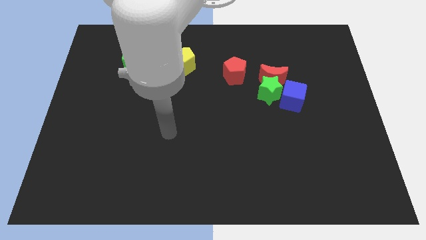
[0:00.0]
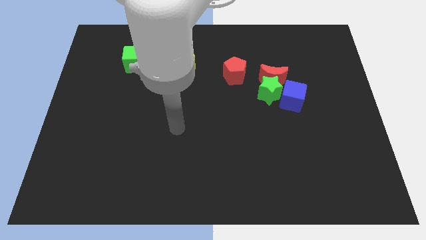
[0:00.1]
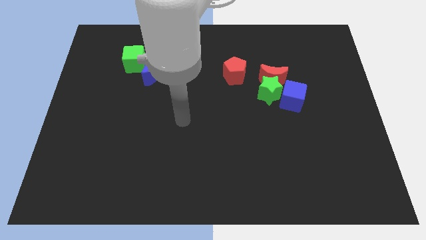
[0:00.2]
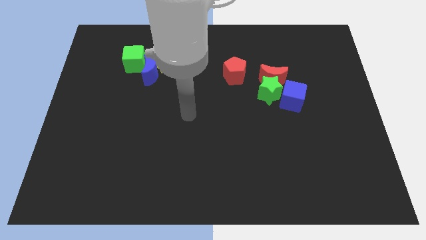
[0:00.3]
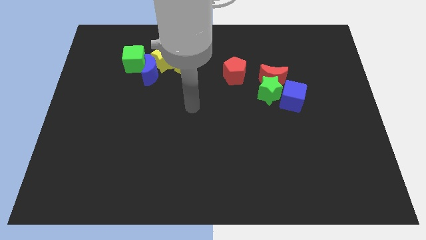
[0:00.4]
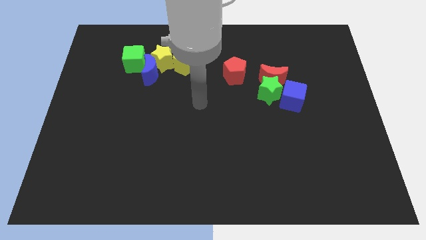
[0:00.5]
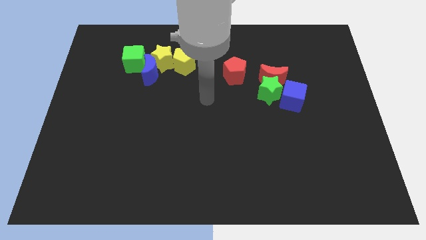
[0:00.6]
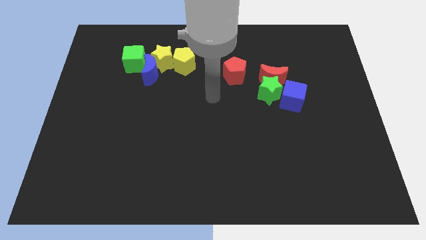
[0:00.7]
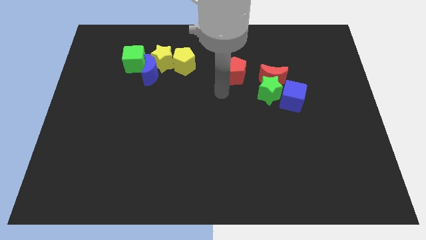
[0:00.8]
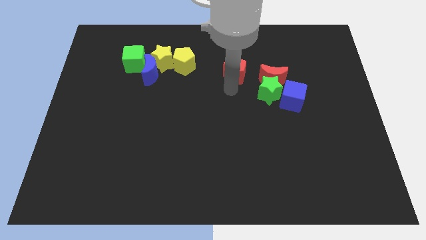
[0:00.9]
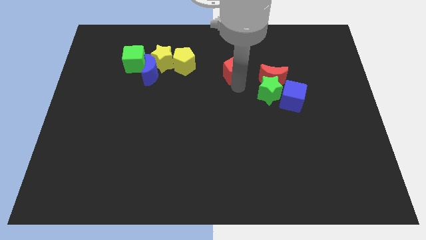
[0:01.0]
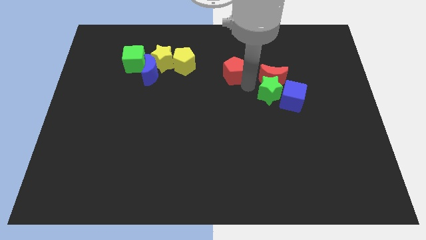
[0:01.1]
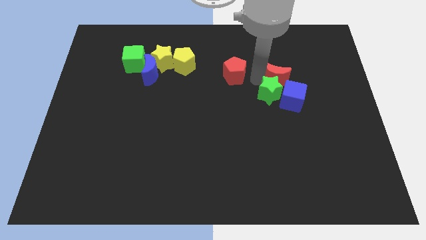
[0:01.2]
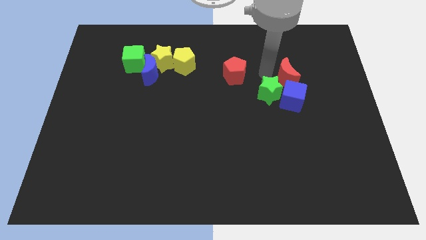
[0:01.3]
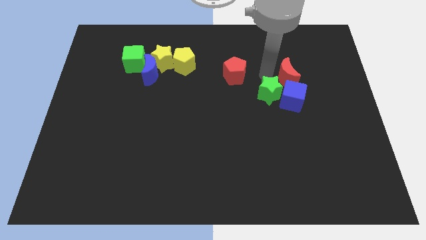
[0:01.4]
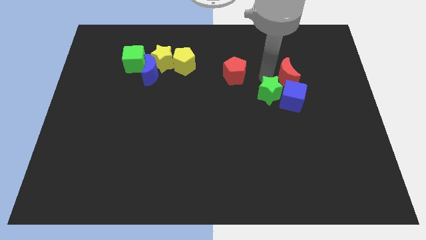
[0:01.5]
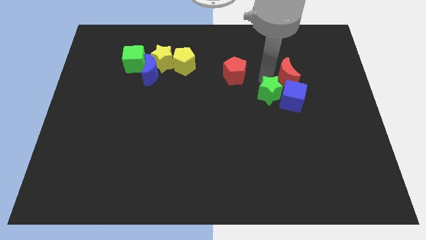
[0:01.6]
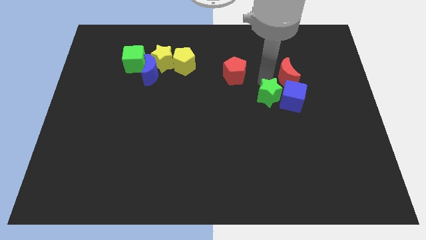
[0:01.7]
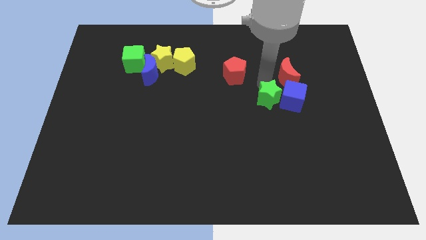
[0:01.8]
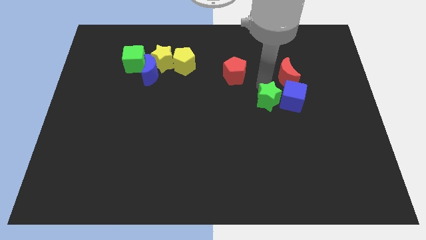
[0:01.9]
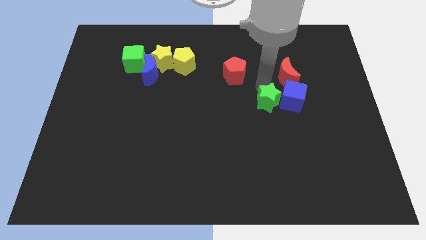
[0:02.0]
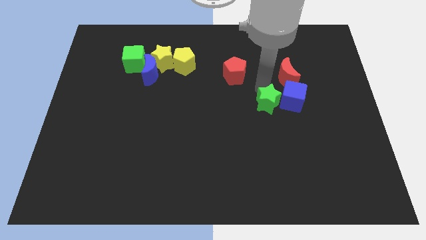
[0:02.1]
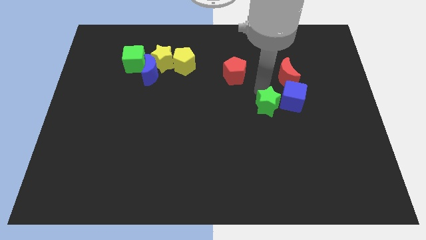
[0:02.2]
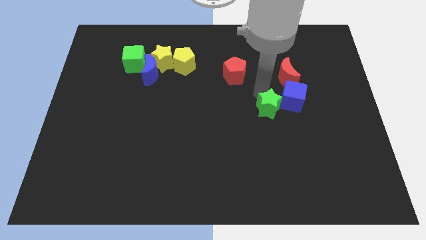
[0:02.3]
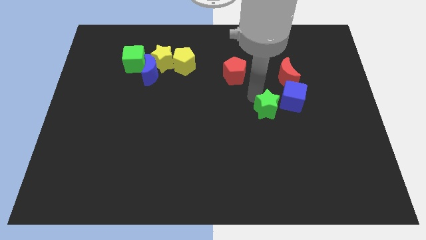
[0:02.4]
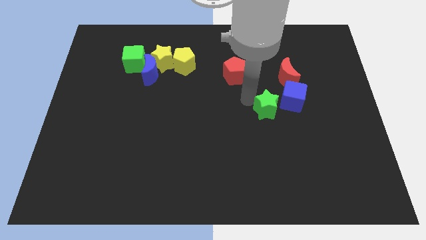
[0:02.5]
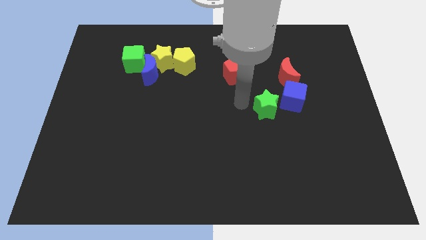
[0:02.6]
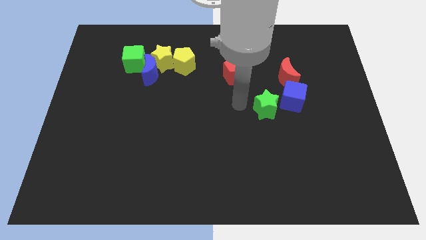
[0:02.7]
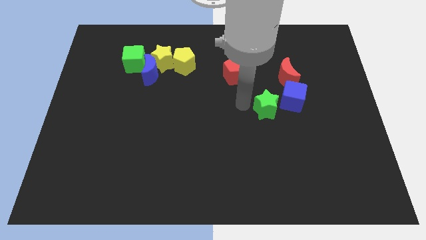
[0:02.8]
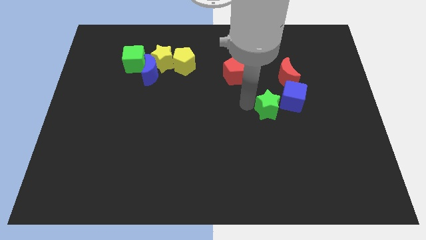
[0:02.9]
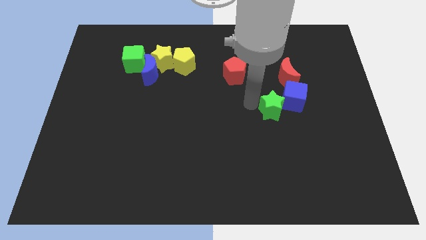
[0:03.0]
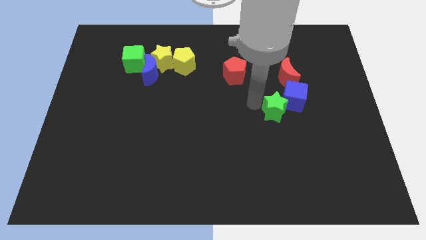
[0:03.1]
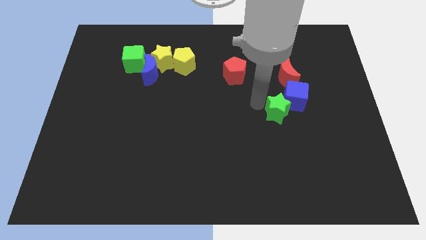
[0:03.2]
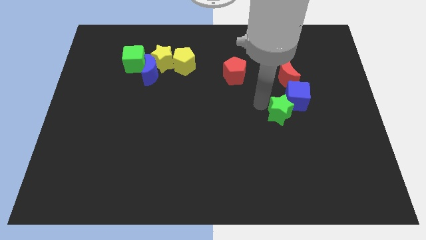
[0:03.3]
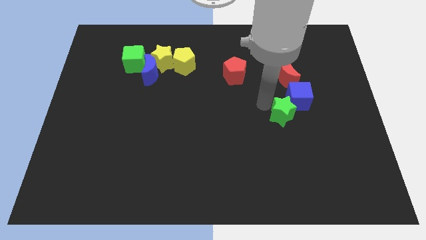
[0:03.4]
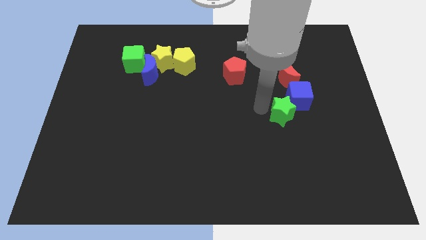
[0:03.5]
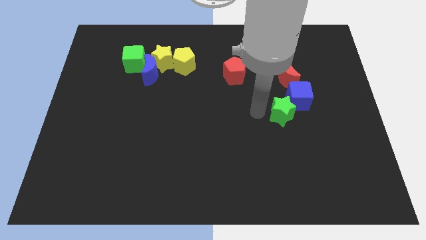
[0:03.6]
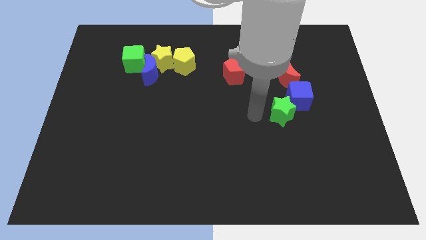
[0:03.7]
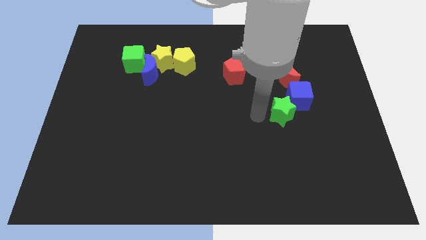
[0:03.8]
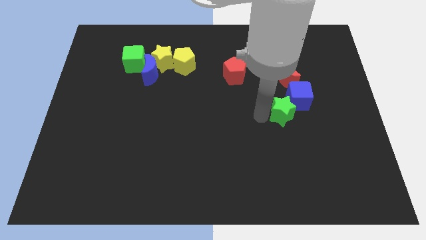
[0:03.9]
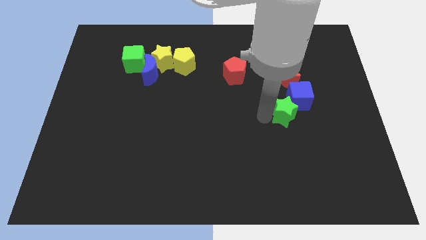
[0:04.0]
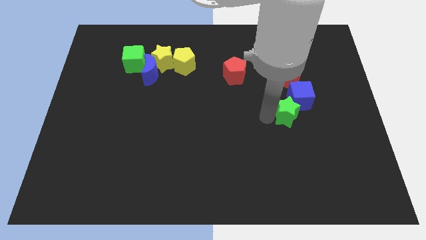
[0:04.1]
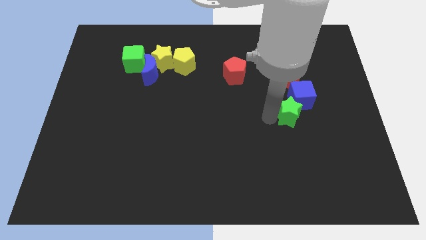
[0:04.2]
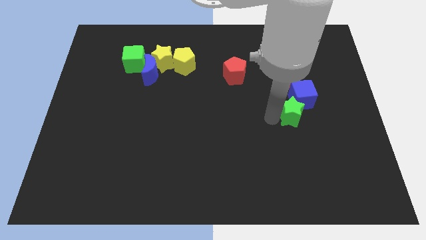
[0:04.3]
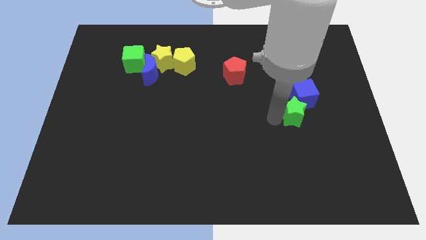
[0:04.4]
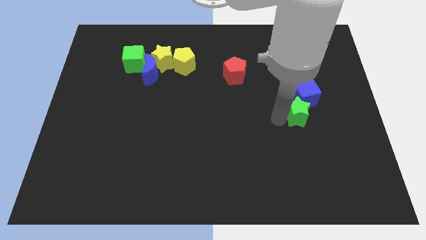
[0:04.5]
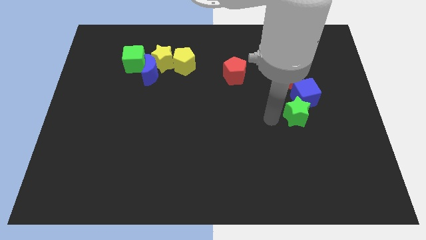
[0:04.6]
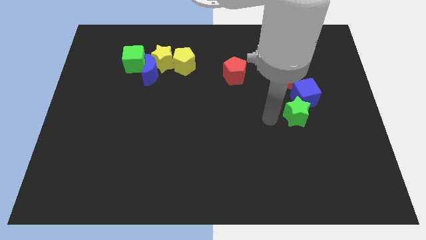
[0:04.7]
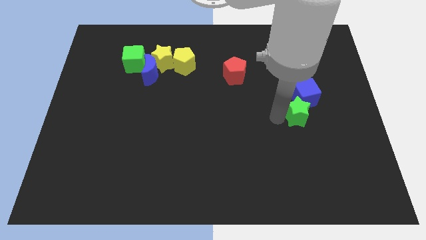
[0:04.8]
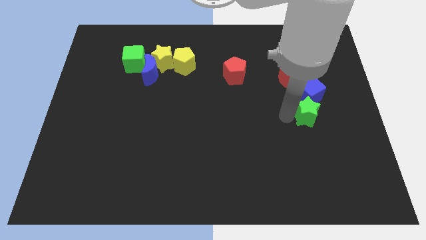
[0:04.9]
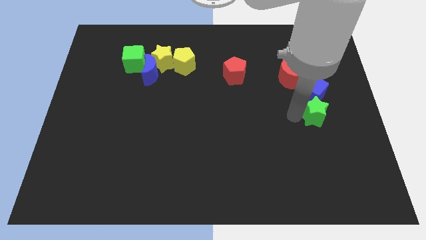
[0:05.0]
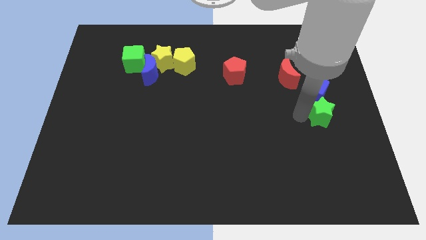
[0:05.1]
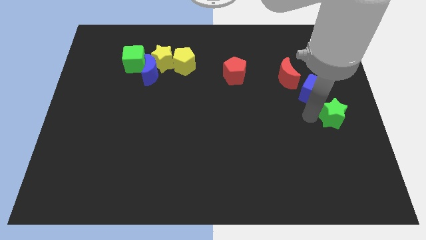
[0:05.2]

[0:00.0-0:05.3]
slide the green star to the right side

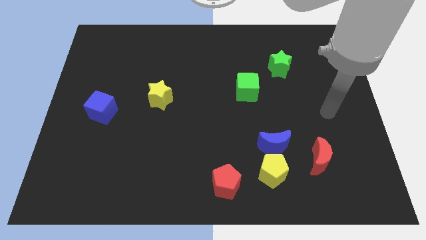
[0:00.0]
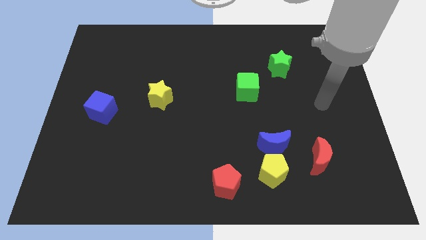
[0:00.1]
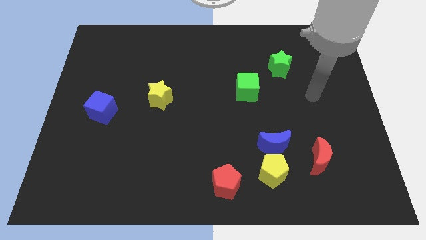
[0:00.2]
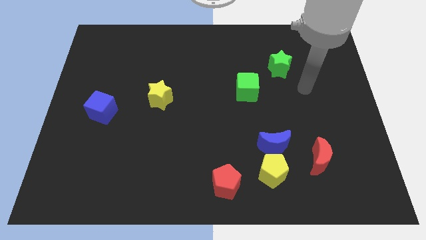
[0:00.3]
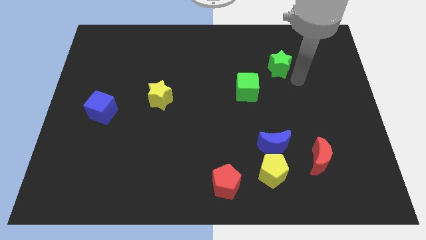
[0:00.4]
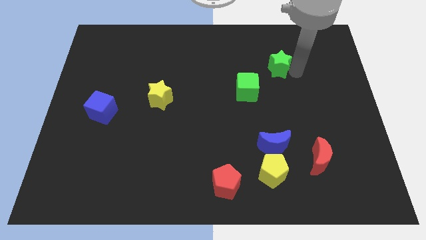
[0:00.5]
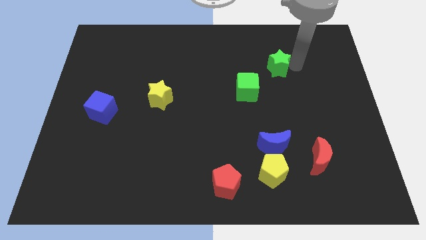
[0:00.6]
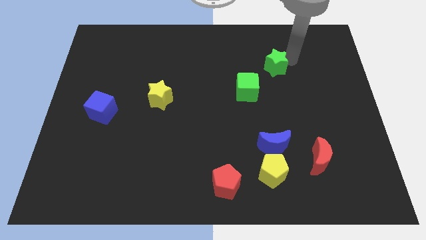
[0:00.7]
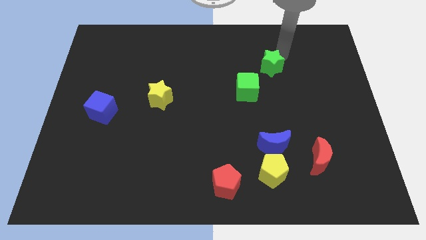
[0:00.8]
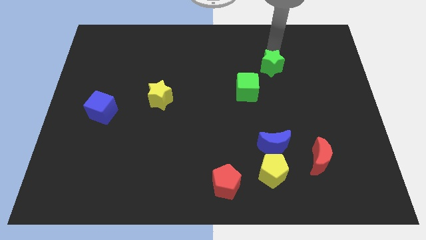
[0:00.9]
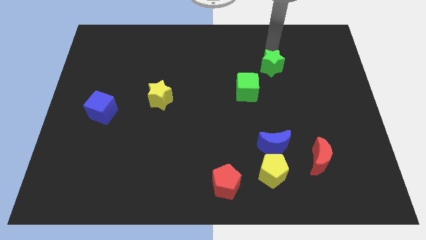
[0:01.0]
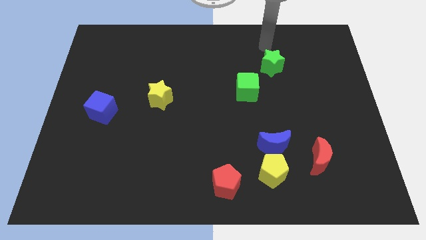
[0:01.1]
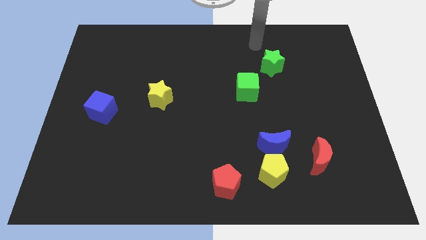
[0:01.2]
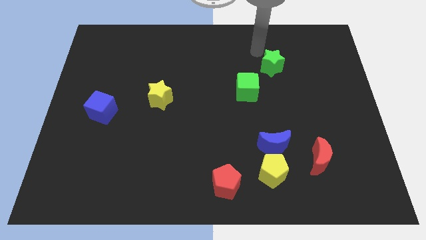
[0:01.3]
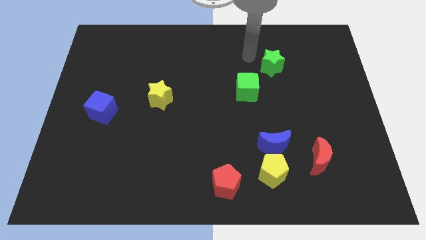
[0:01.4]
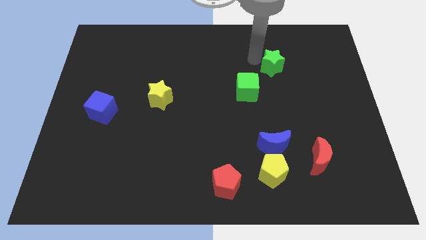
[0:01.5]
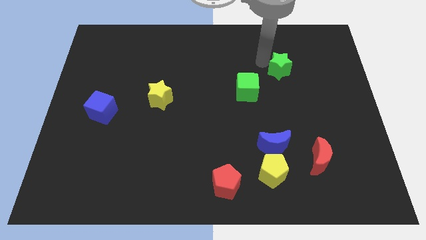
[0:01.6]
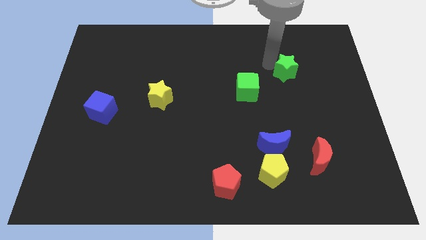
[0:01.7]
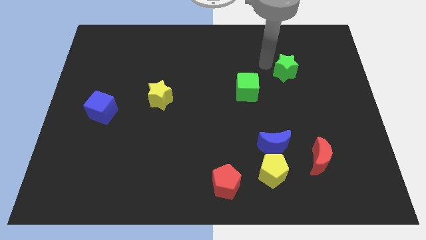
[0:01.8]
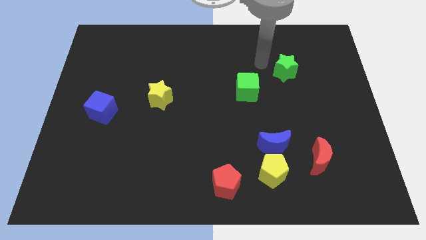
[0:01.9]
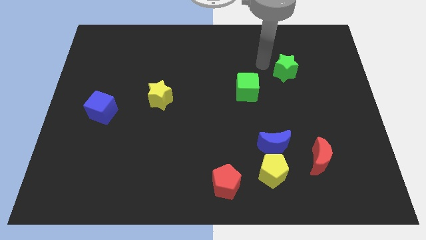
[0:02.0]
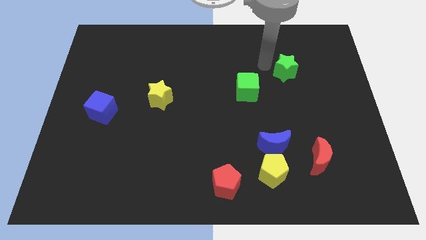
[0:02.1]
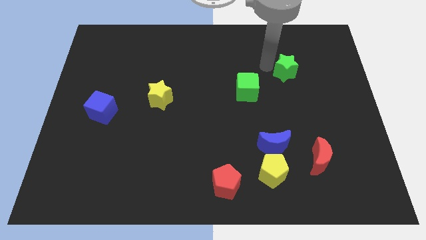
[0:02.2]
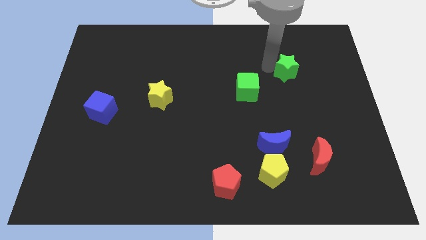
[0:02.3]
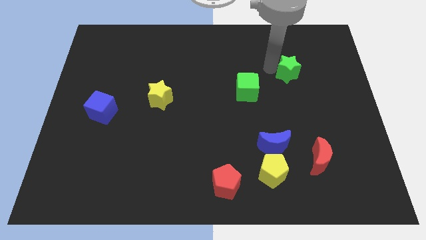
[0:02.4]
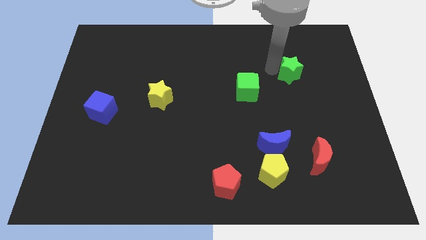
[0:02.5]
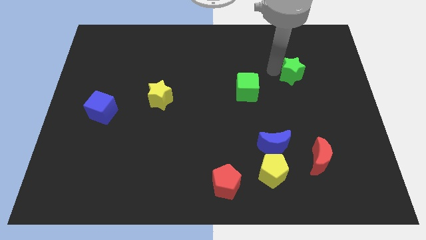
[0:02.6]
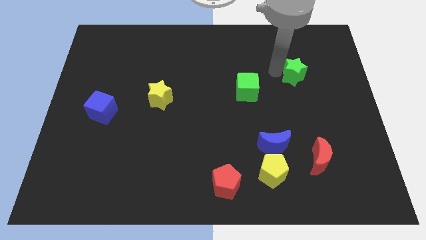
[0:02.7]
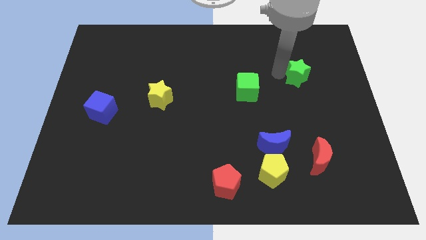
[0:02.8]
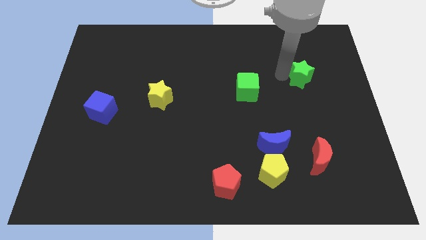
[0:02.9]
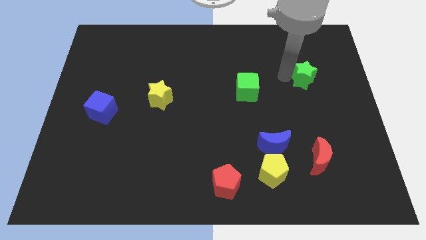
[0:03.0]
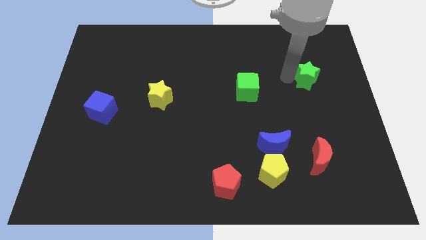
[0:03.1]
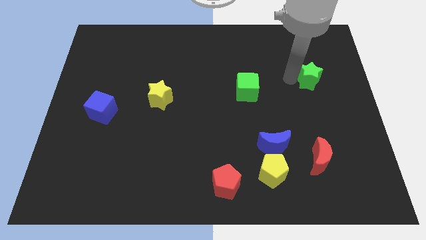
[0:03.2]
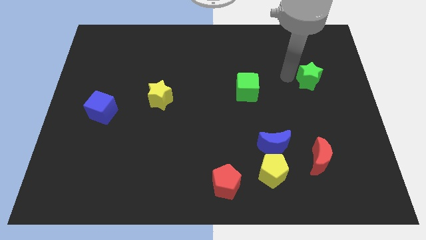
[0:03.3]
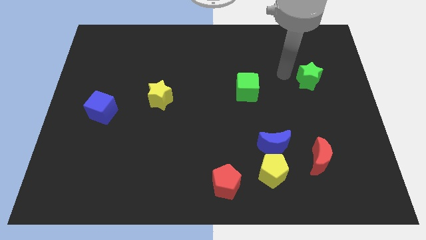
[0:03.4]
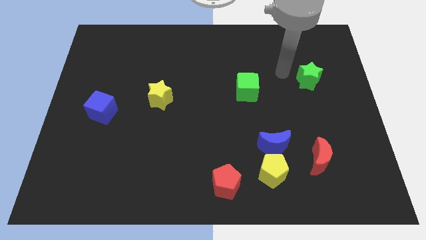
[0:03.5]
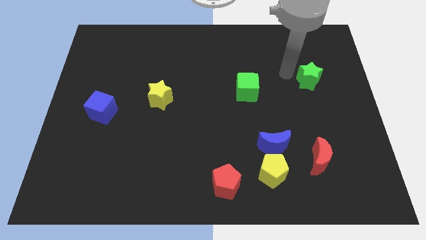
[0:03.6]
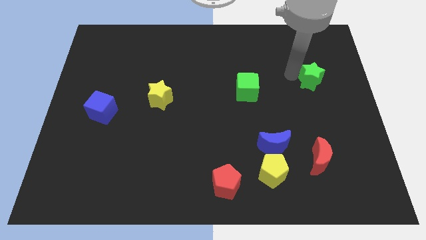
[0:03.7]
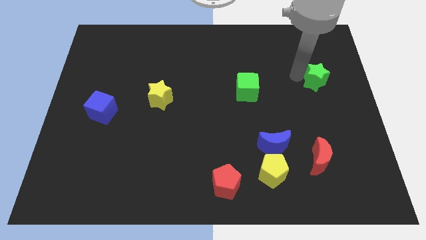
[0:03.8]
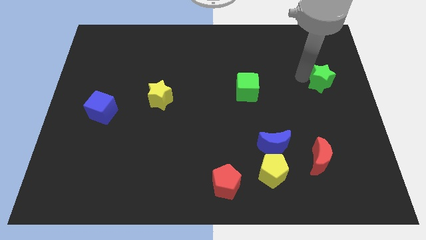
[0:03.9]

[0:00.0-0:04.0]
put the green star to the right side of the board
